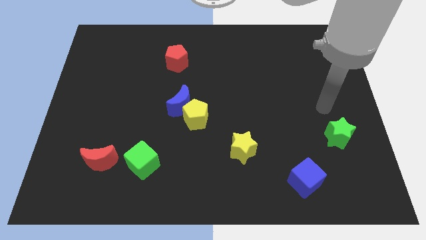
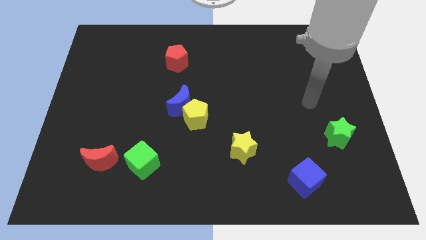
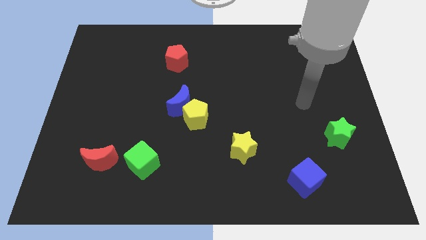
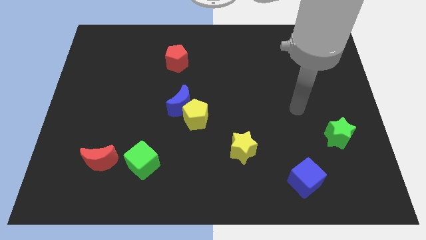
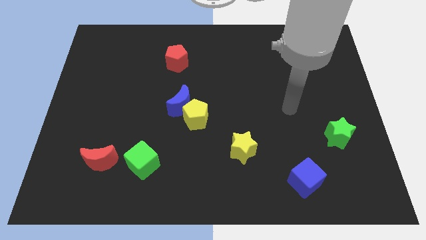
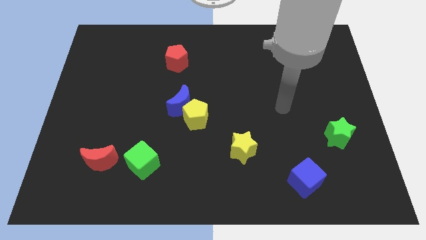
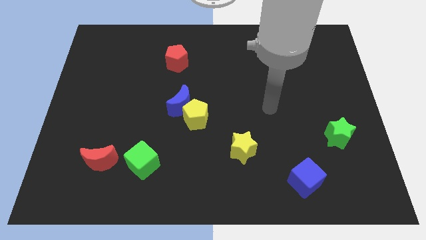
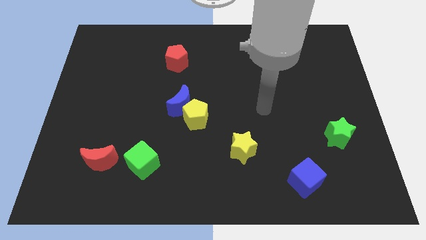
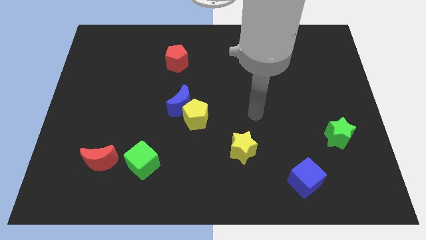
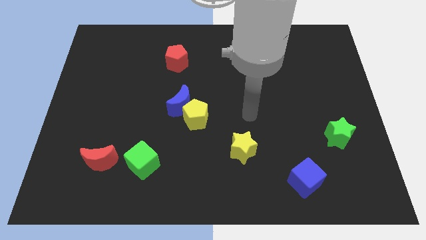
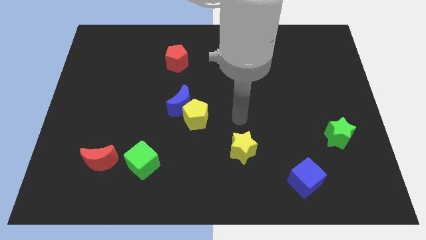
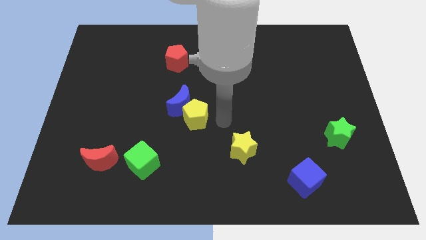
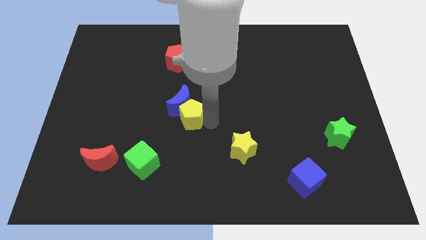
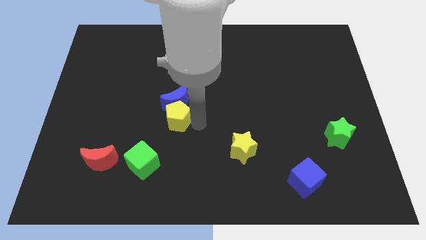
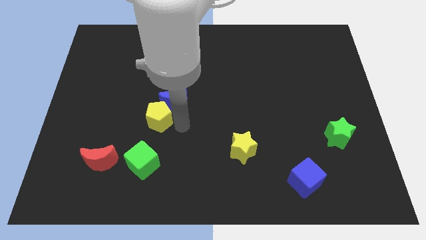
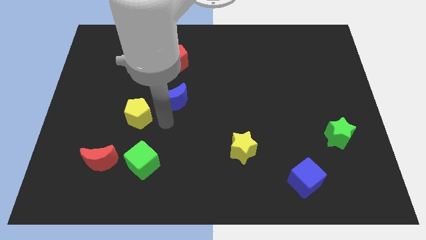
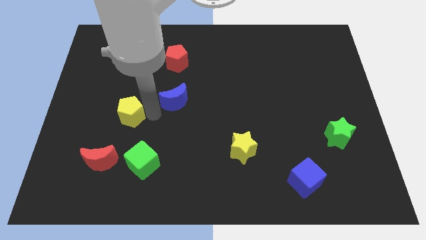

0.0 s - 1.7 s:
move the blue moon away from the yellow pentagon

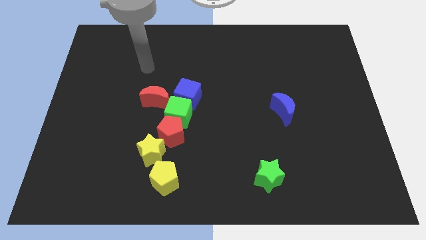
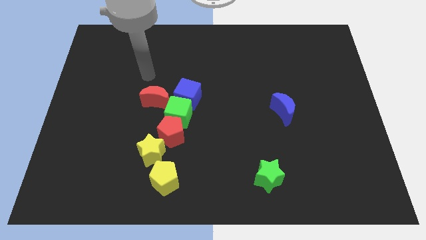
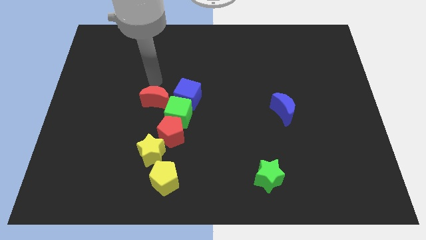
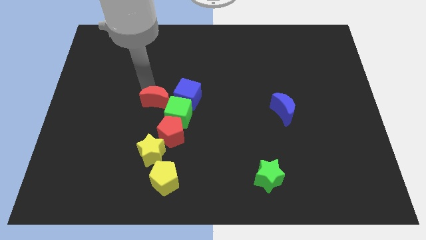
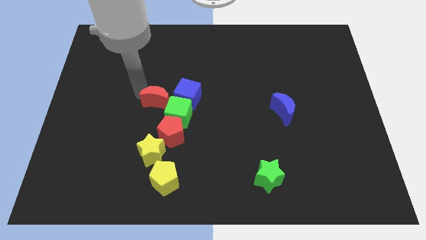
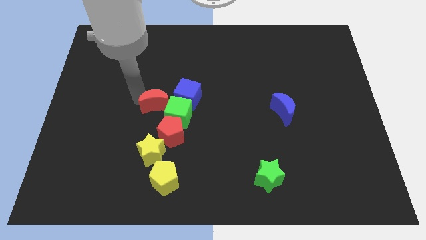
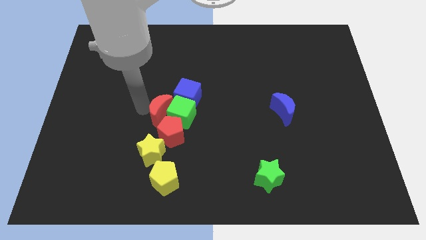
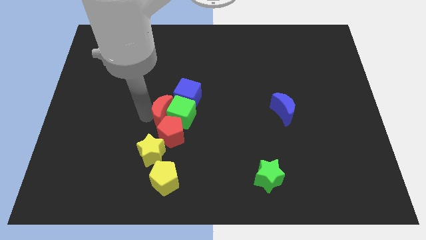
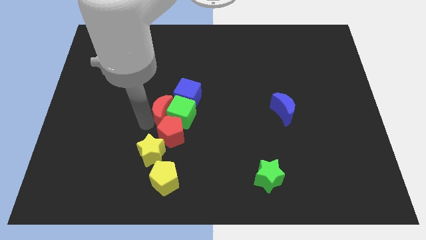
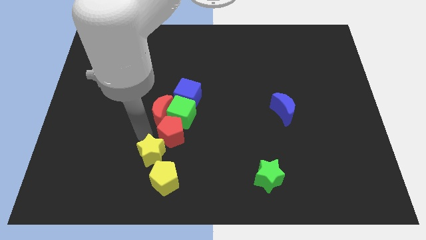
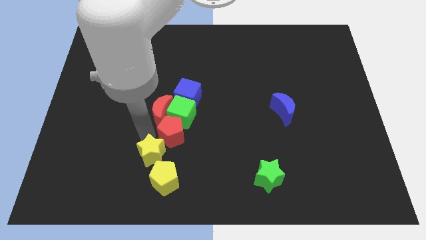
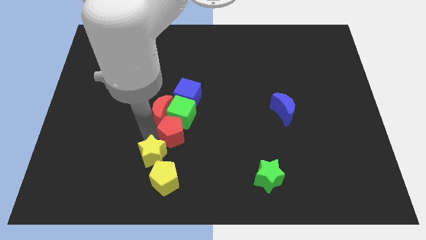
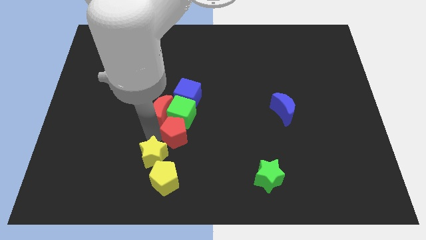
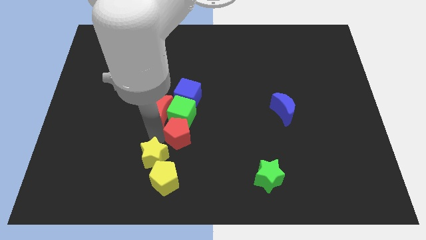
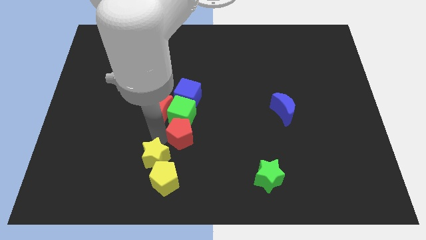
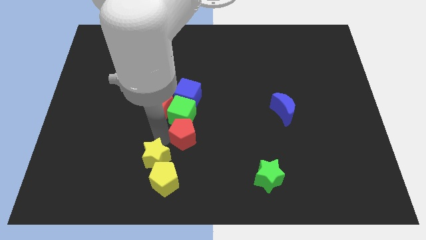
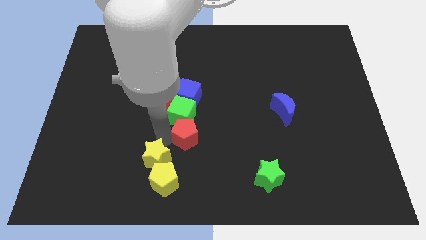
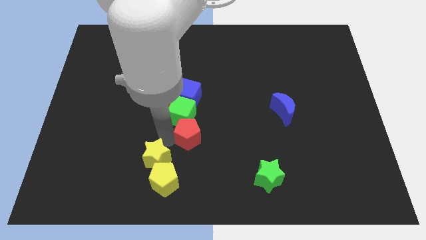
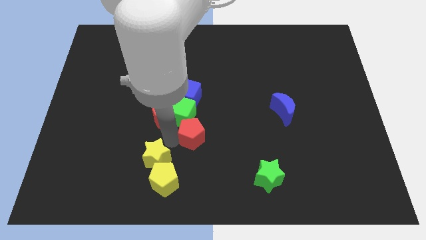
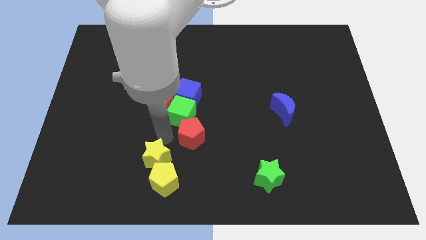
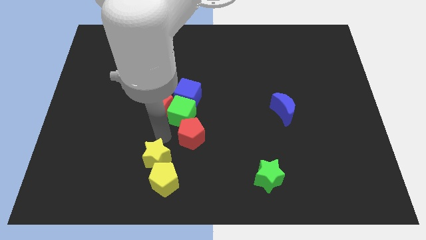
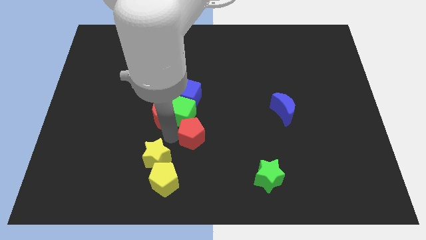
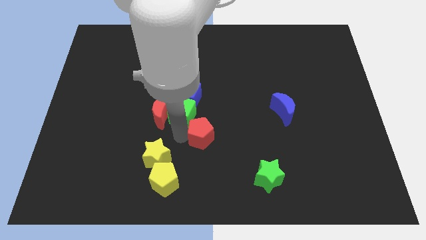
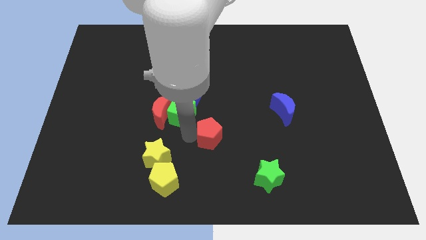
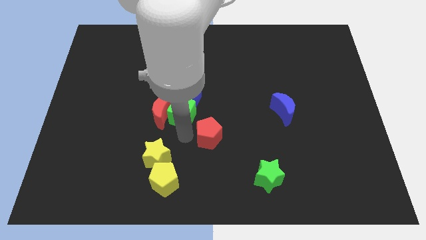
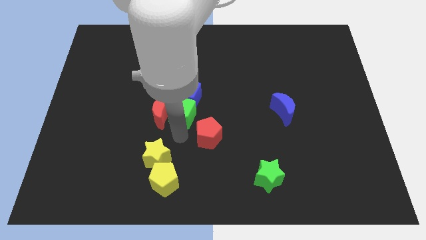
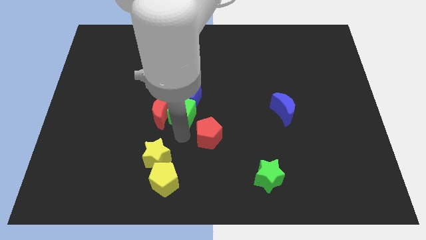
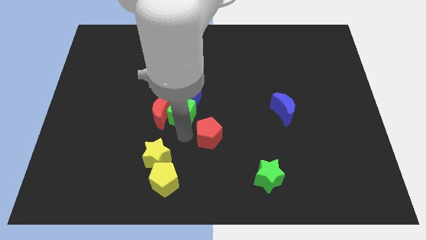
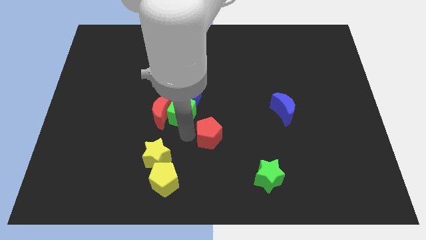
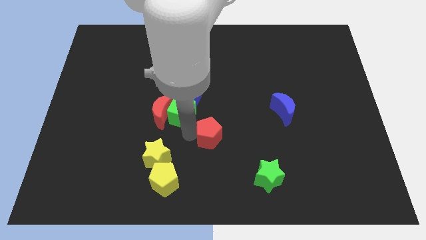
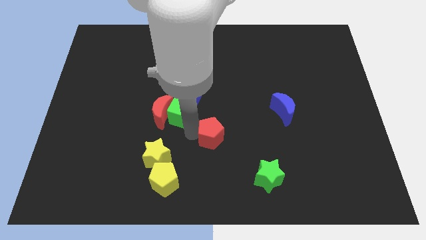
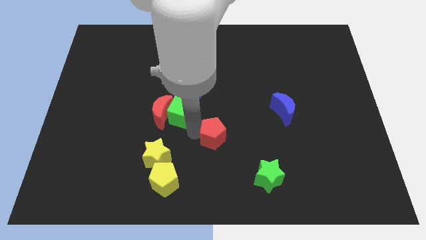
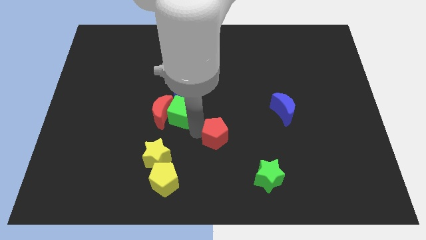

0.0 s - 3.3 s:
separate the red pentagon from the green cube and yellow star

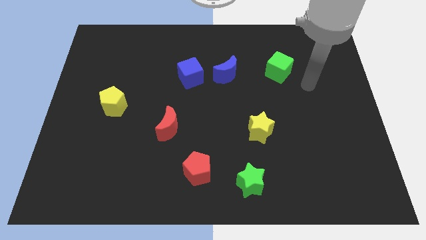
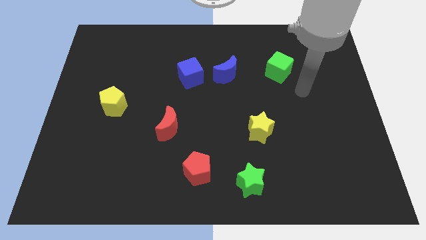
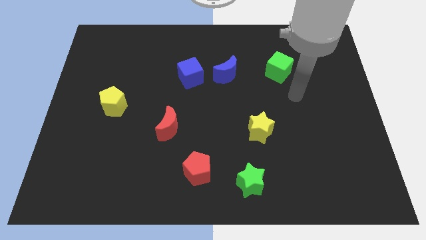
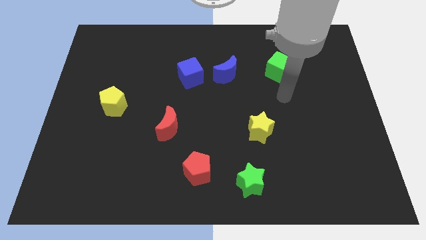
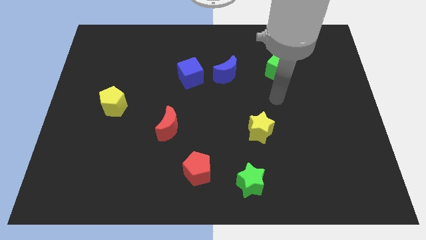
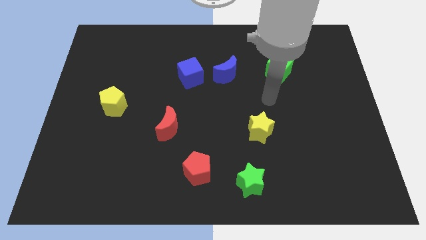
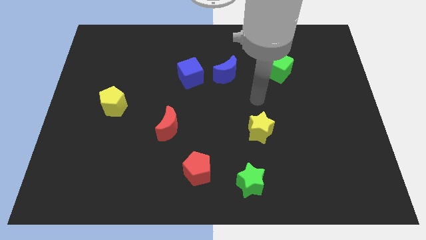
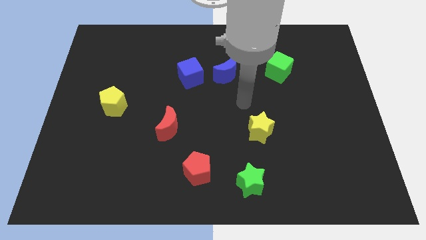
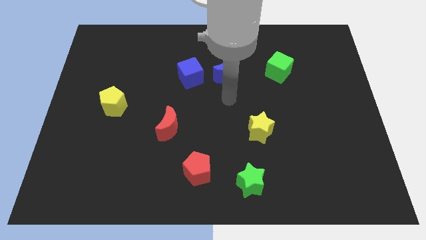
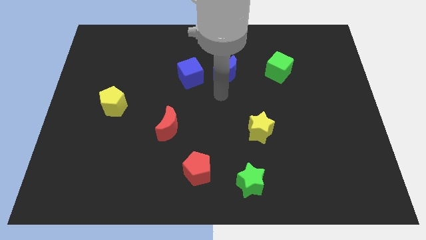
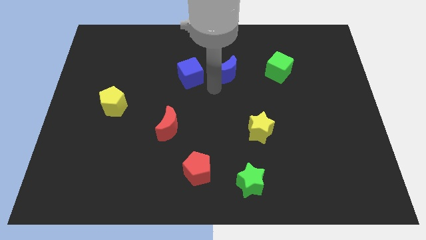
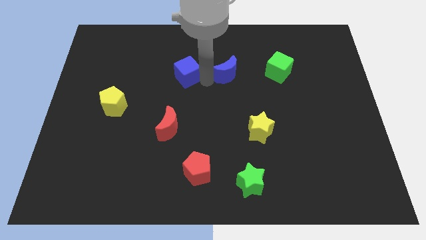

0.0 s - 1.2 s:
move the blue moon away from the blue cube

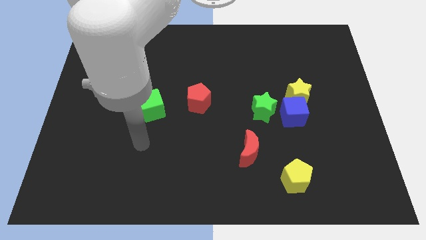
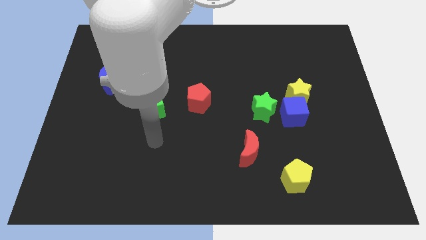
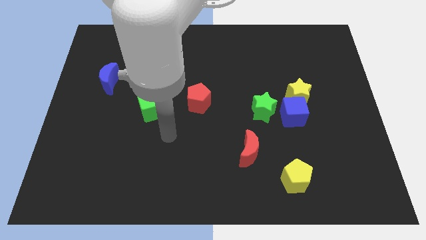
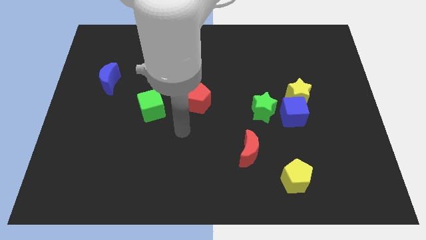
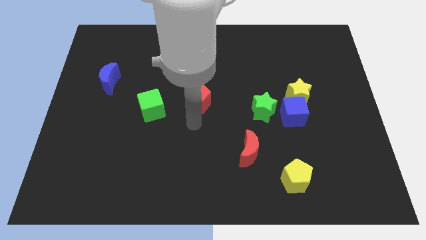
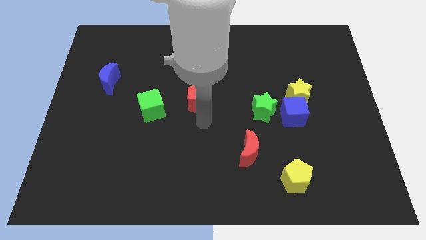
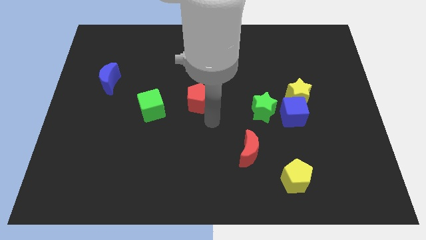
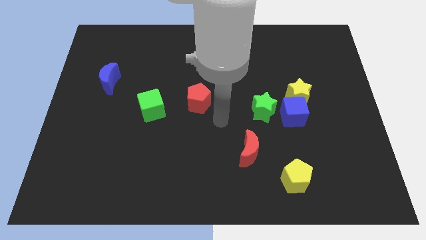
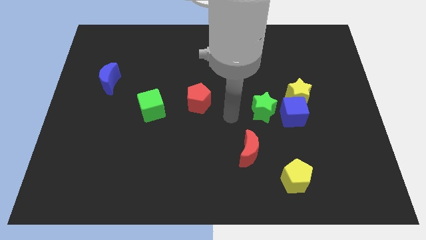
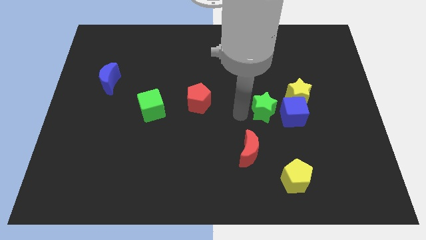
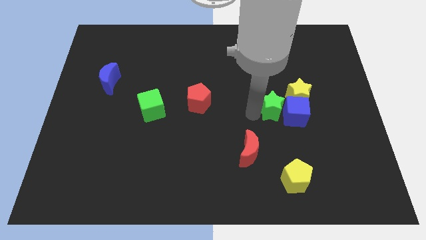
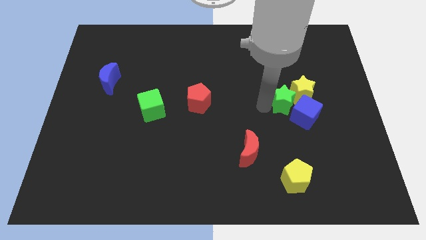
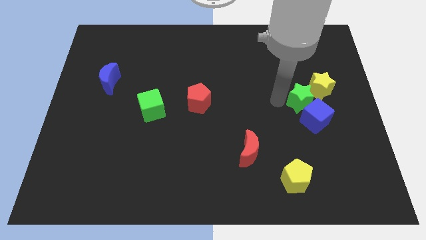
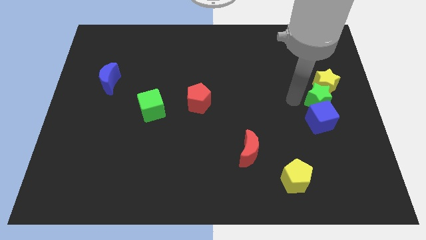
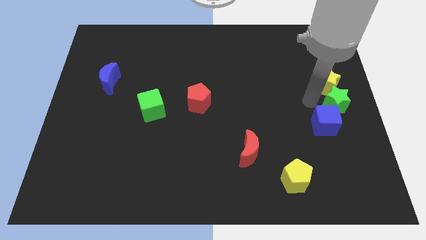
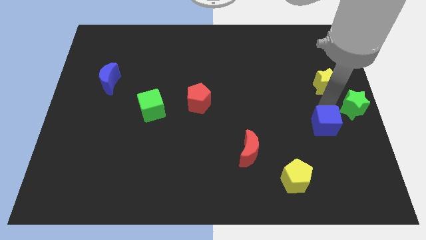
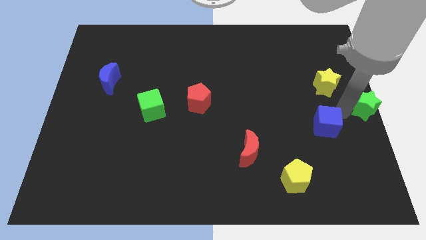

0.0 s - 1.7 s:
separate the blue cube from the yellow star and green star

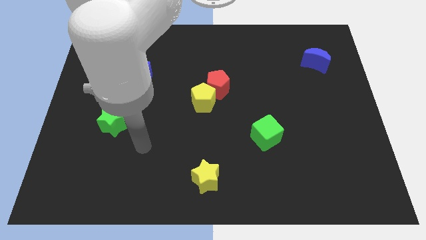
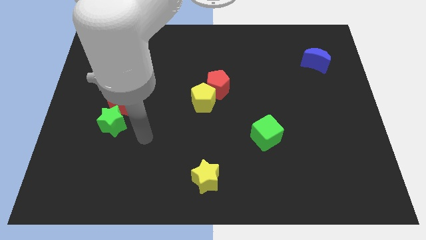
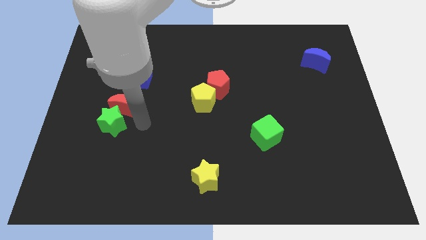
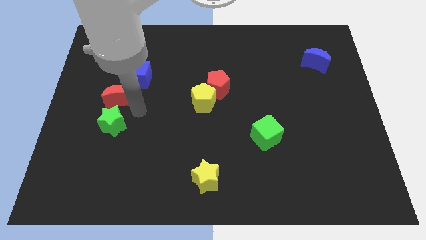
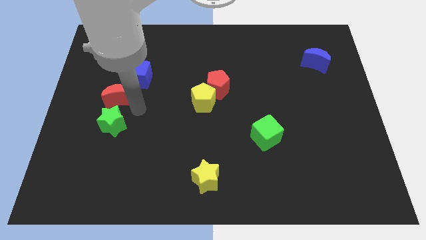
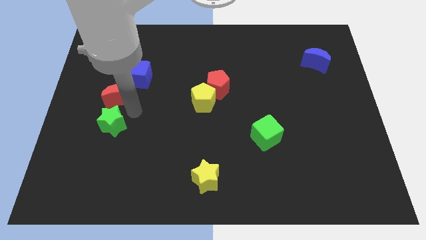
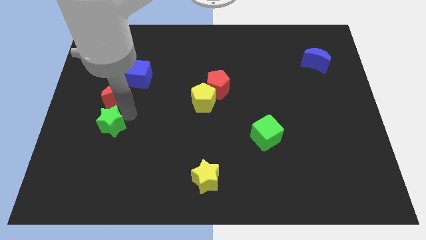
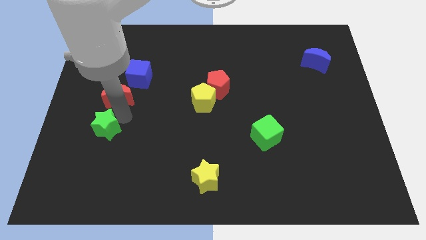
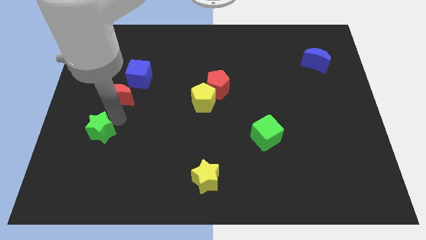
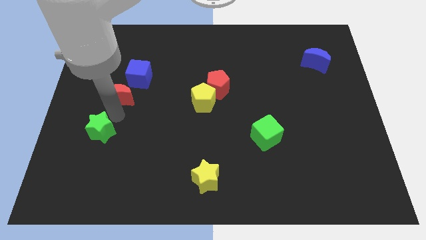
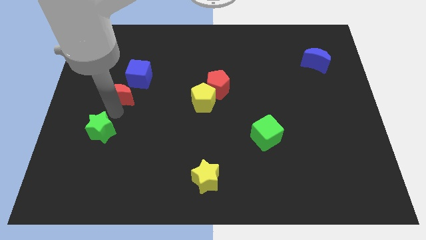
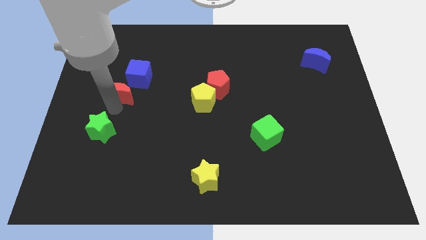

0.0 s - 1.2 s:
pull the green star apart from the red moon

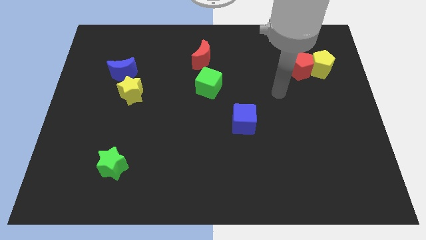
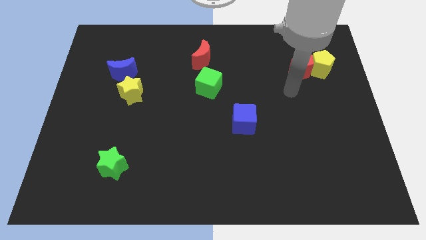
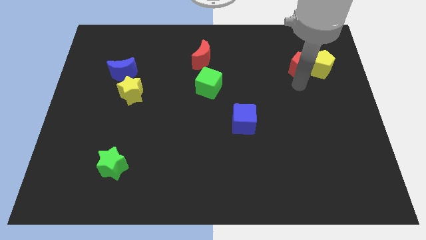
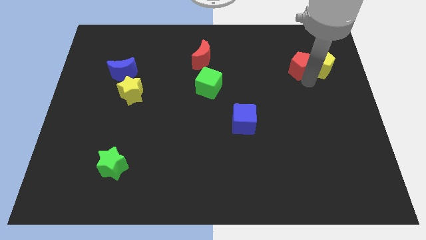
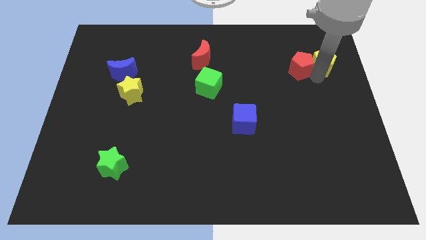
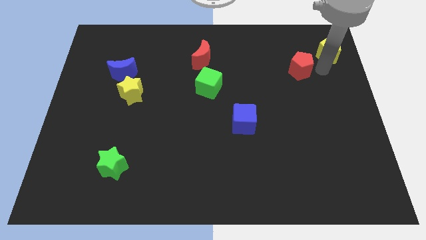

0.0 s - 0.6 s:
separate the red pentagon from the yellow pentagon
